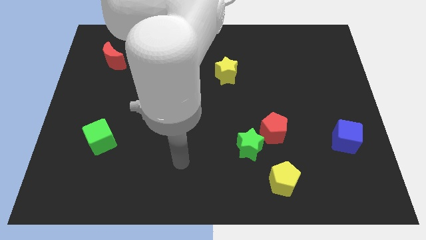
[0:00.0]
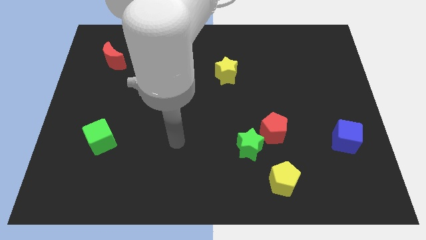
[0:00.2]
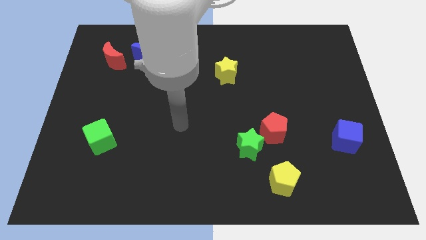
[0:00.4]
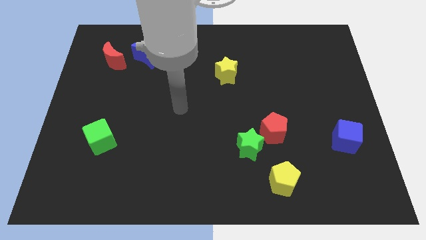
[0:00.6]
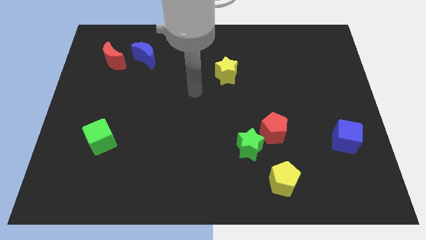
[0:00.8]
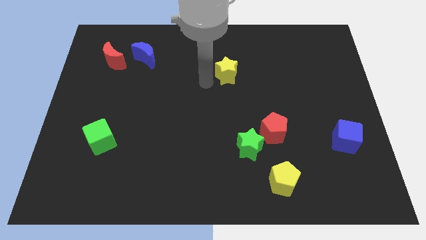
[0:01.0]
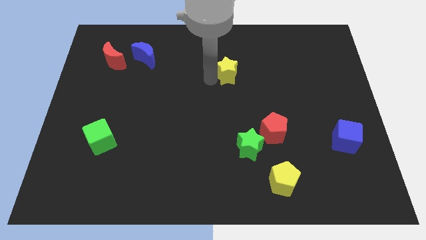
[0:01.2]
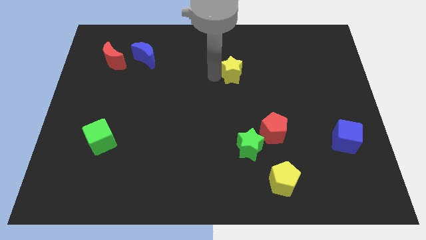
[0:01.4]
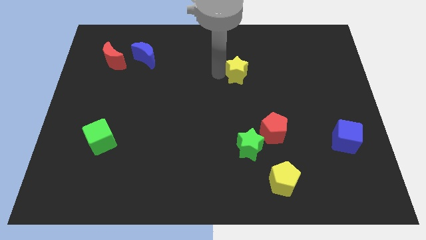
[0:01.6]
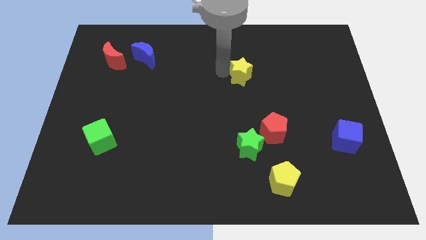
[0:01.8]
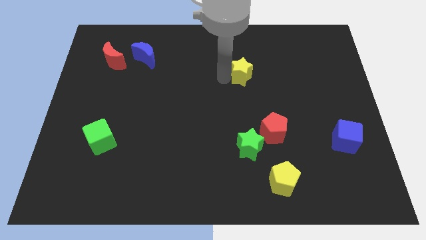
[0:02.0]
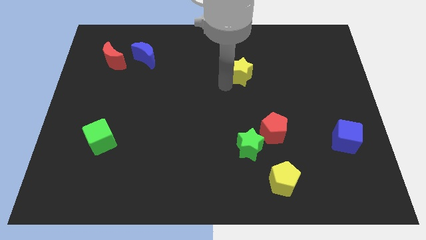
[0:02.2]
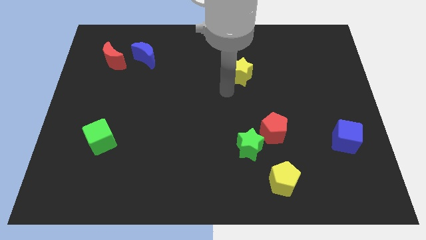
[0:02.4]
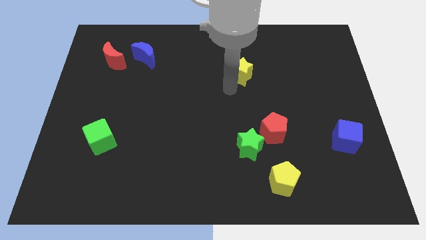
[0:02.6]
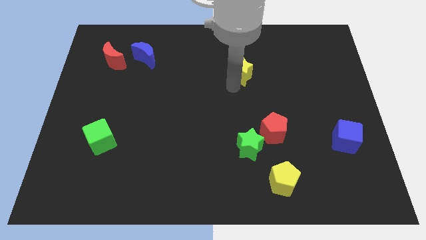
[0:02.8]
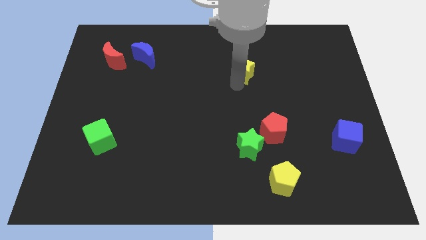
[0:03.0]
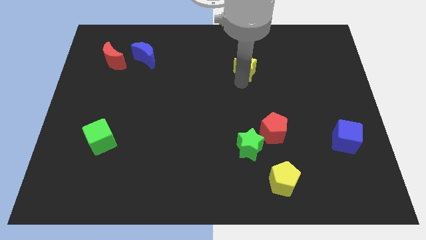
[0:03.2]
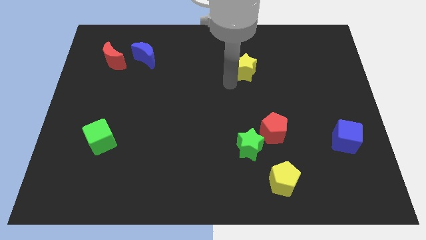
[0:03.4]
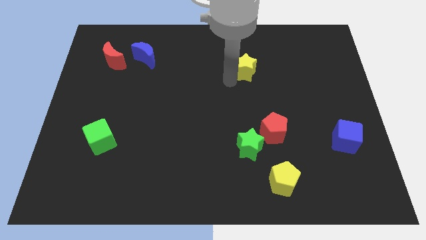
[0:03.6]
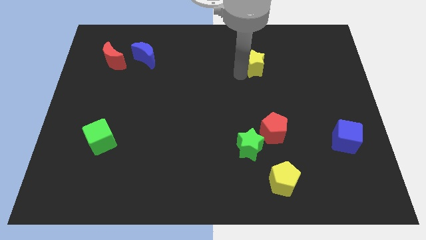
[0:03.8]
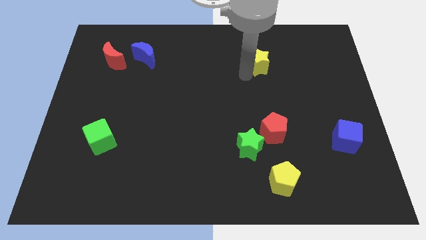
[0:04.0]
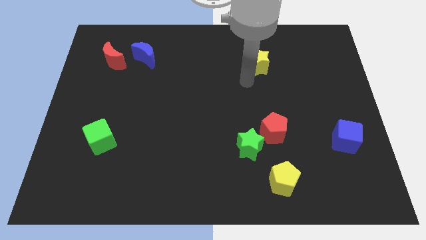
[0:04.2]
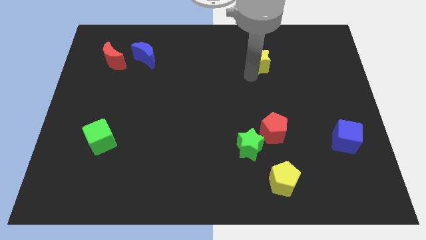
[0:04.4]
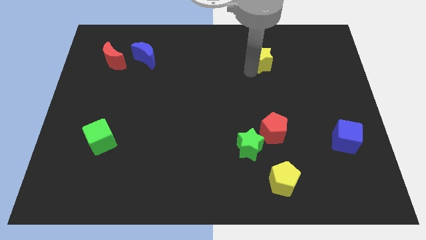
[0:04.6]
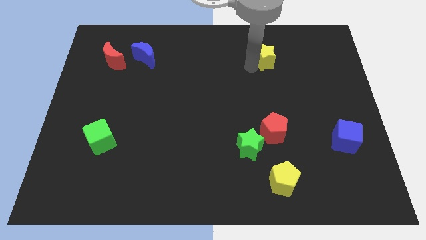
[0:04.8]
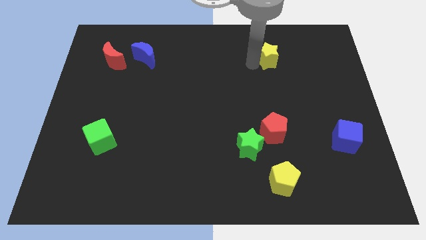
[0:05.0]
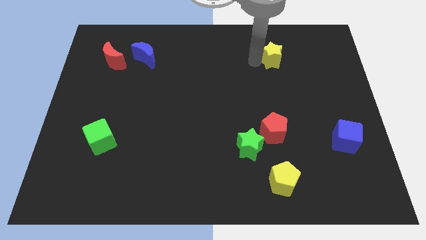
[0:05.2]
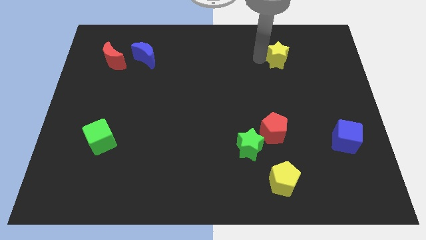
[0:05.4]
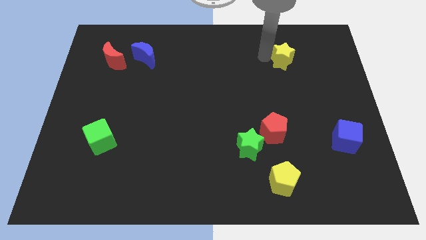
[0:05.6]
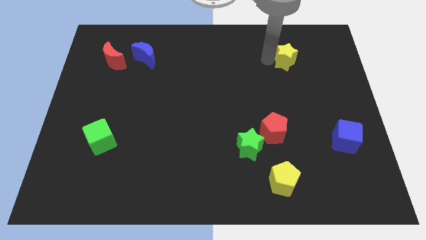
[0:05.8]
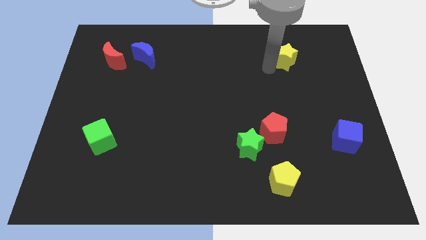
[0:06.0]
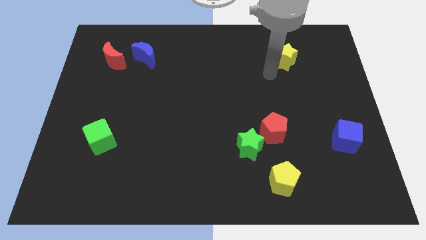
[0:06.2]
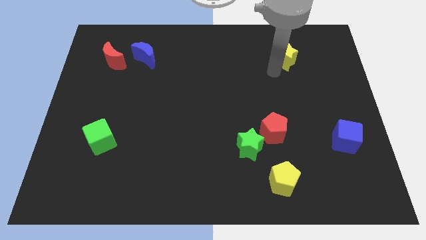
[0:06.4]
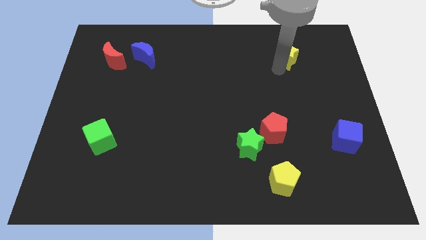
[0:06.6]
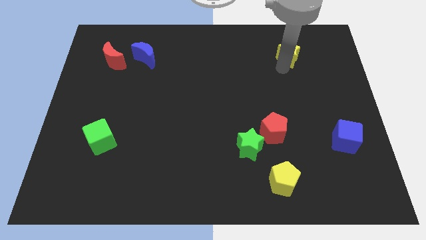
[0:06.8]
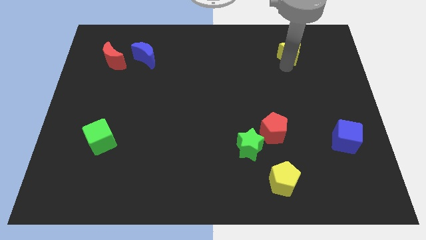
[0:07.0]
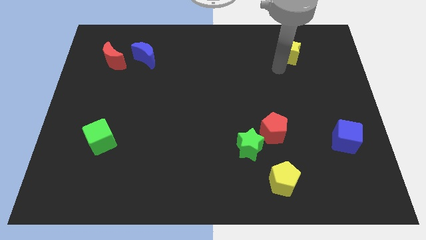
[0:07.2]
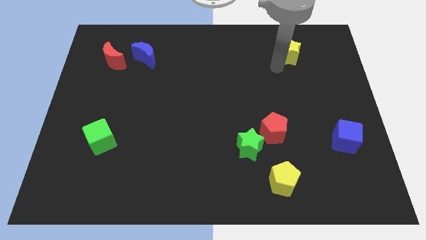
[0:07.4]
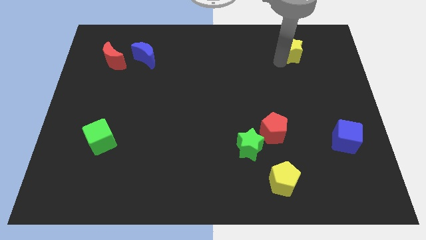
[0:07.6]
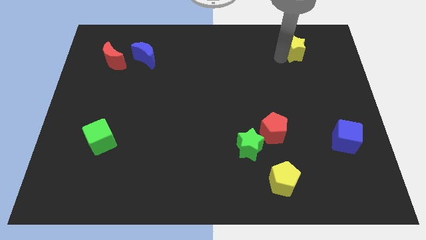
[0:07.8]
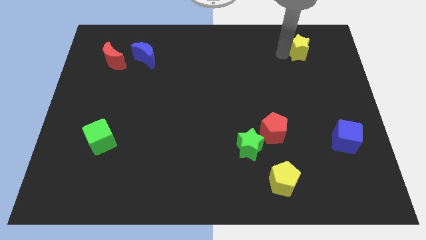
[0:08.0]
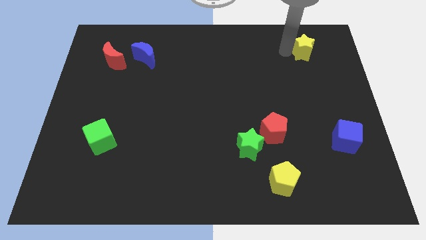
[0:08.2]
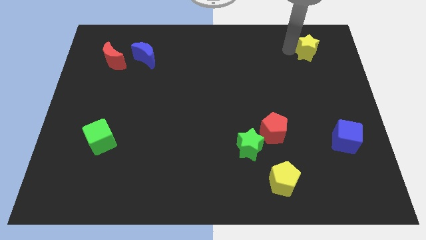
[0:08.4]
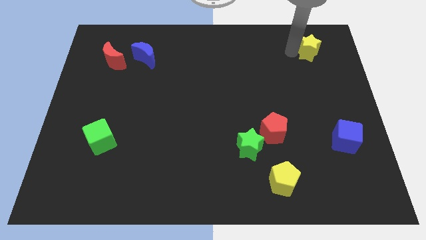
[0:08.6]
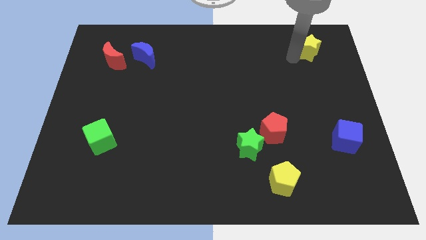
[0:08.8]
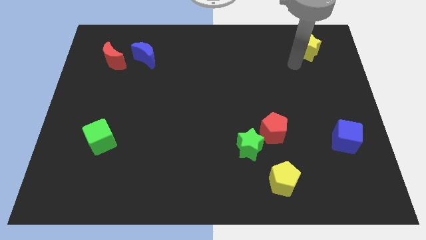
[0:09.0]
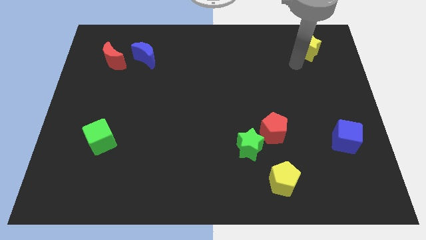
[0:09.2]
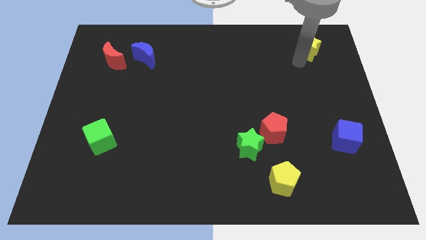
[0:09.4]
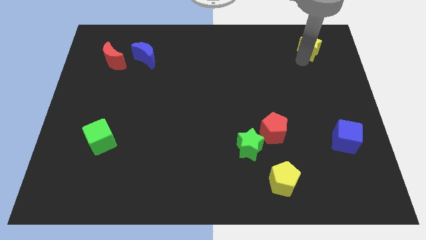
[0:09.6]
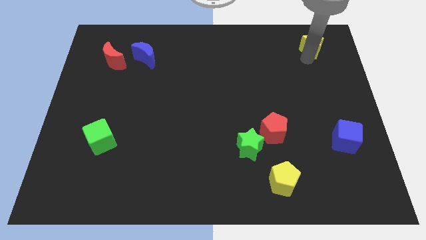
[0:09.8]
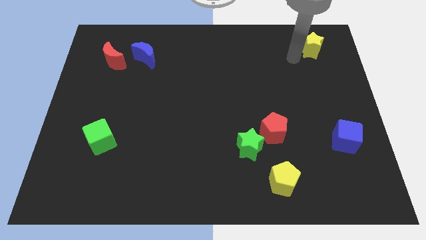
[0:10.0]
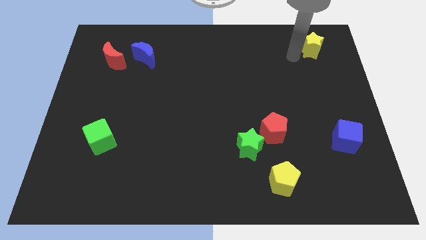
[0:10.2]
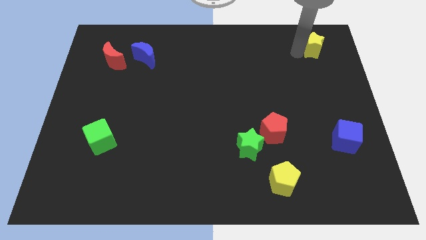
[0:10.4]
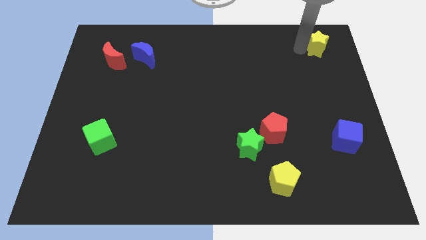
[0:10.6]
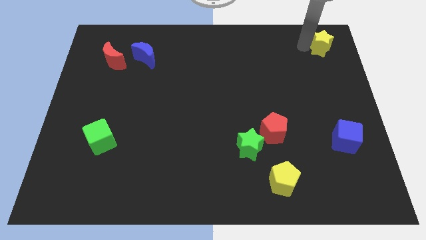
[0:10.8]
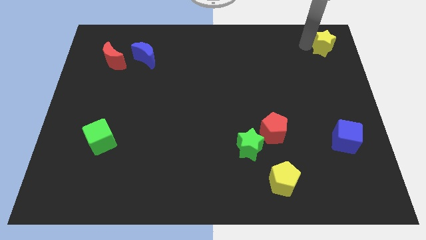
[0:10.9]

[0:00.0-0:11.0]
slide the yellow star to the top right of the board

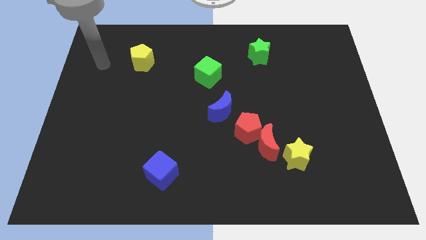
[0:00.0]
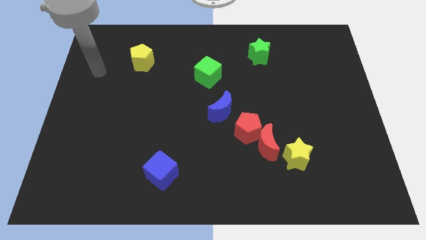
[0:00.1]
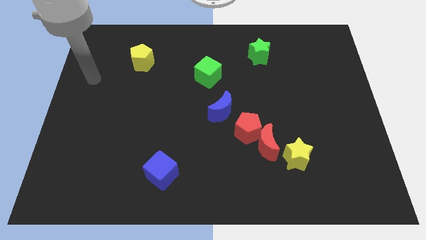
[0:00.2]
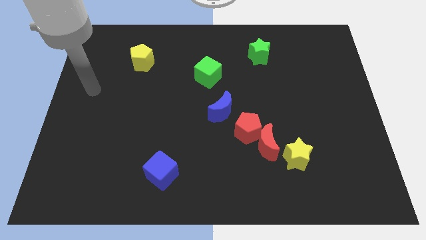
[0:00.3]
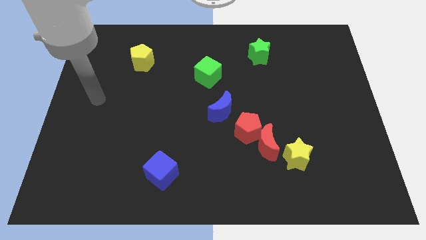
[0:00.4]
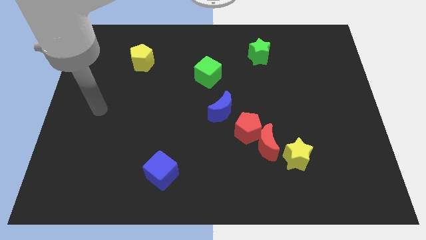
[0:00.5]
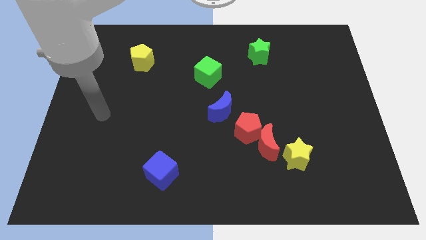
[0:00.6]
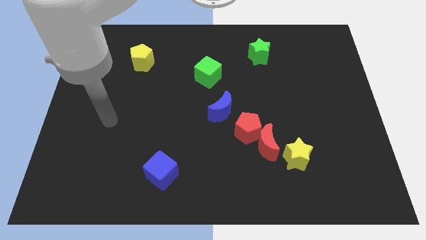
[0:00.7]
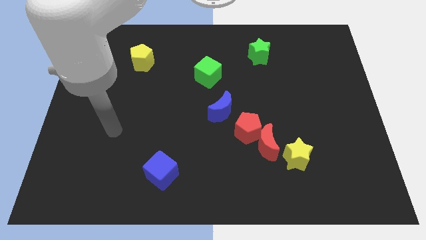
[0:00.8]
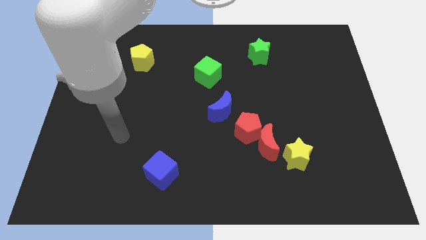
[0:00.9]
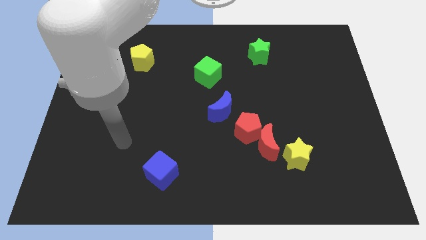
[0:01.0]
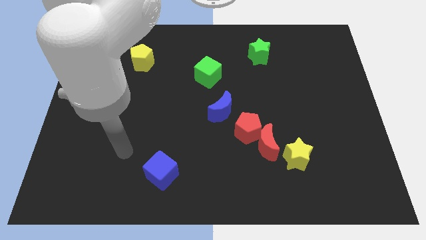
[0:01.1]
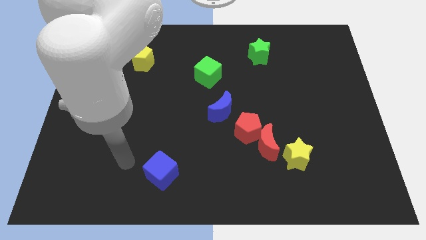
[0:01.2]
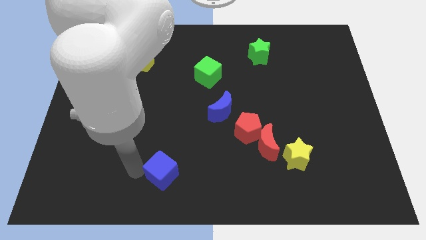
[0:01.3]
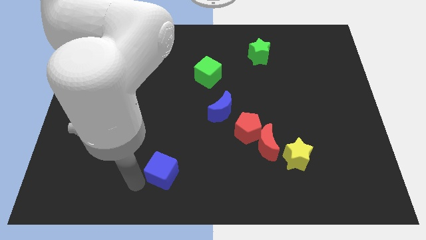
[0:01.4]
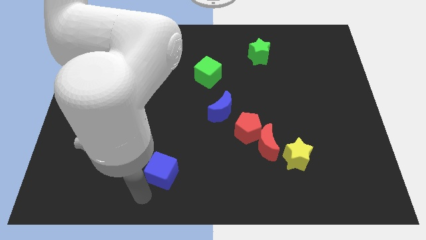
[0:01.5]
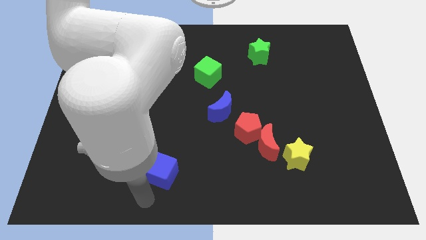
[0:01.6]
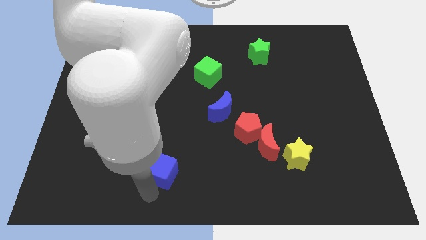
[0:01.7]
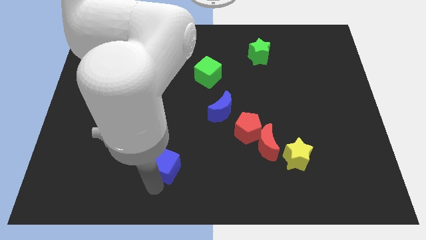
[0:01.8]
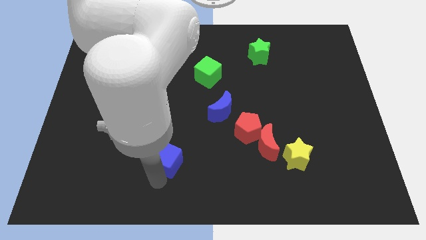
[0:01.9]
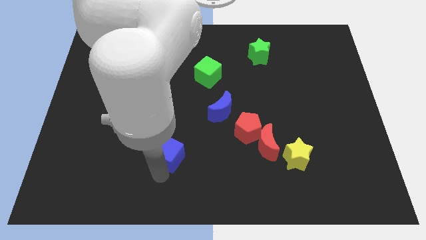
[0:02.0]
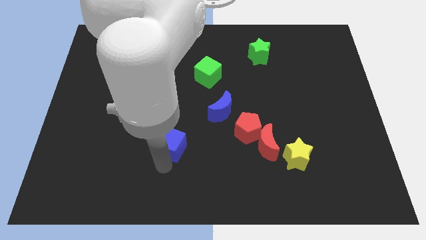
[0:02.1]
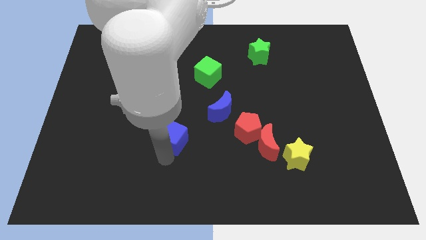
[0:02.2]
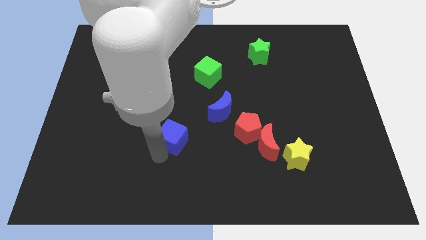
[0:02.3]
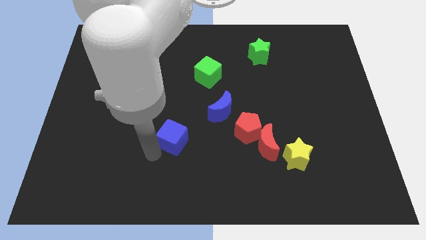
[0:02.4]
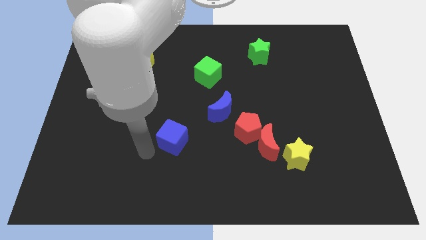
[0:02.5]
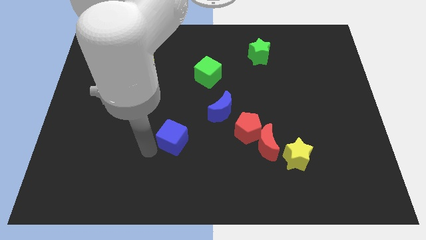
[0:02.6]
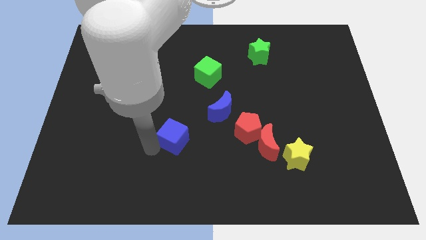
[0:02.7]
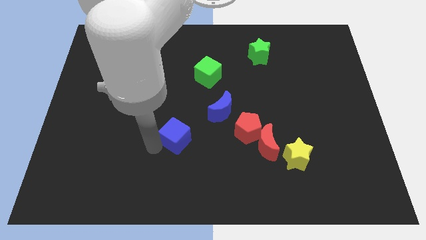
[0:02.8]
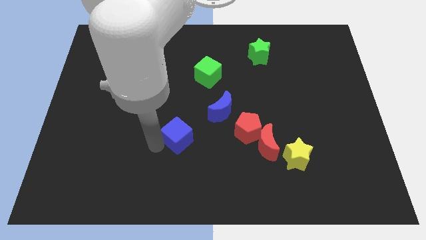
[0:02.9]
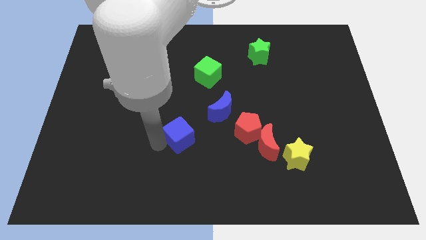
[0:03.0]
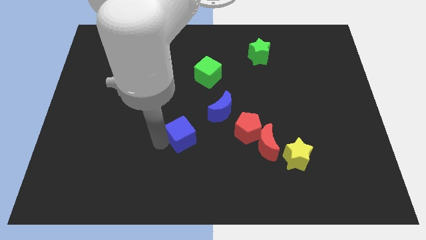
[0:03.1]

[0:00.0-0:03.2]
slide the blue cube to the center of the board
